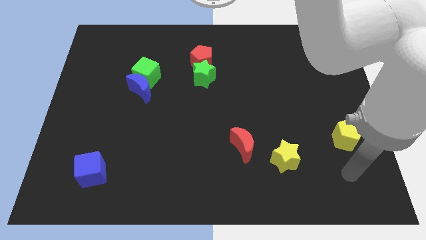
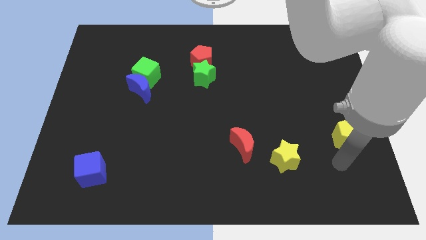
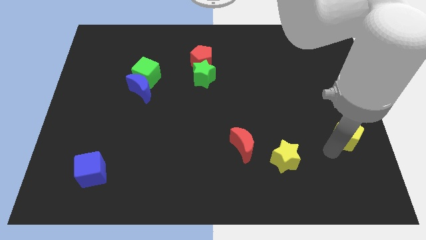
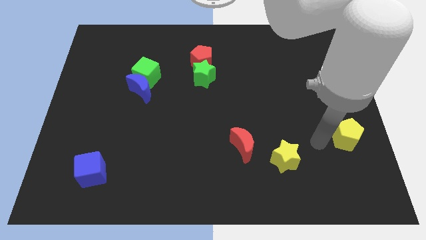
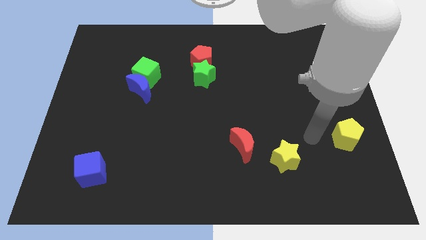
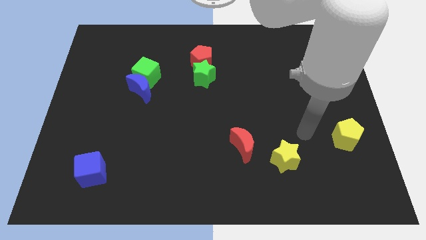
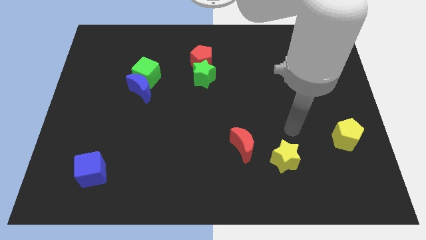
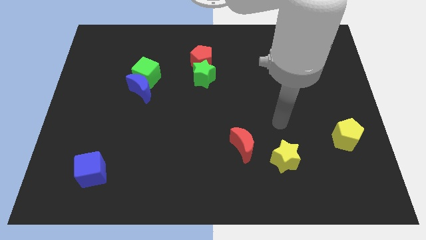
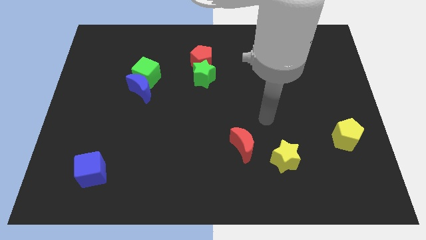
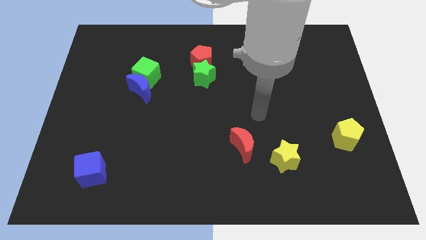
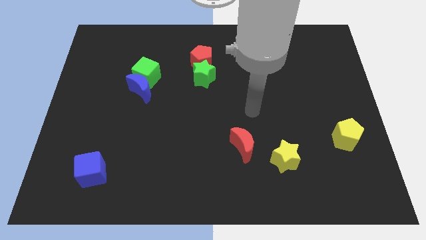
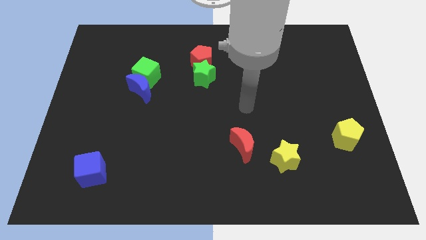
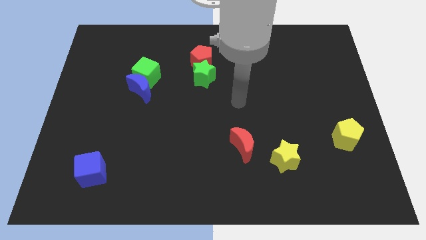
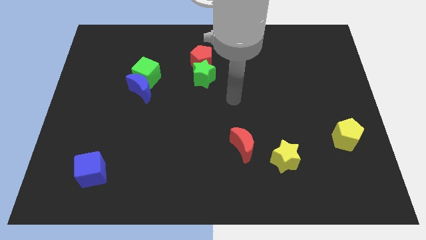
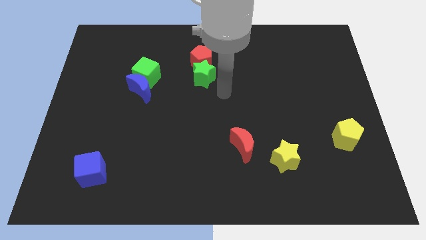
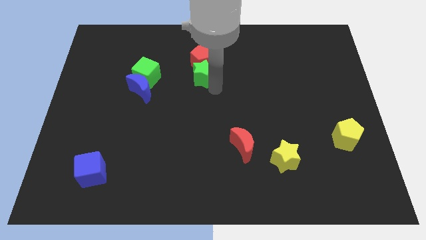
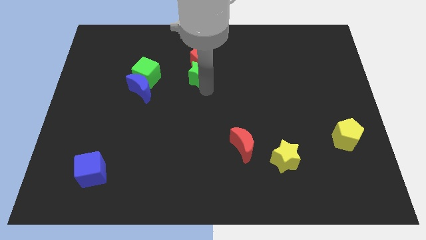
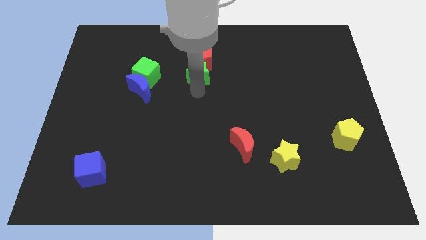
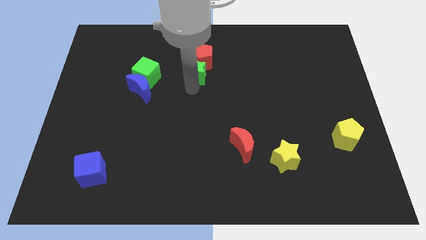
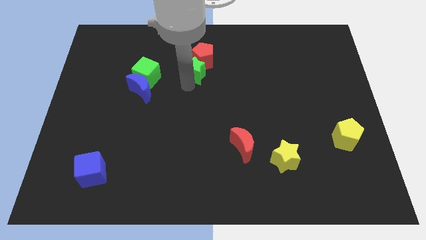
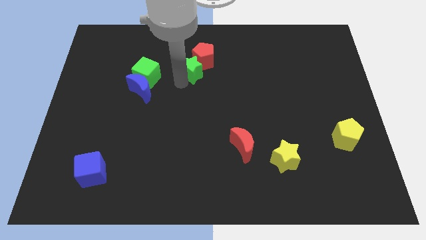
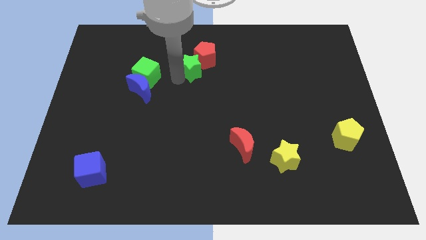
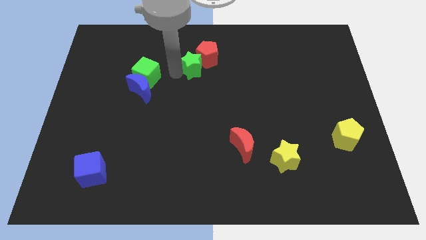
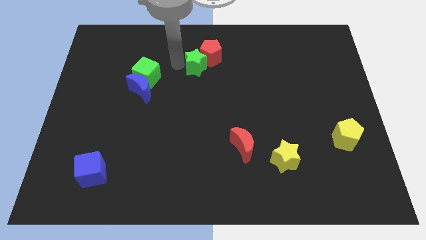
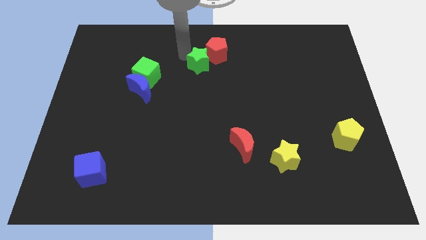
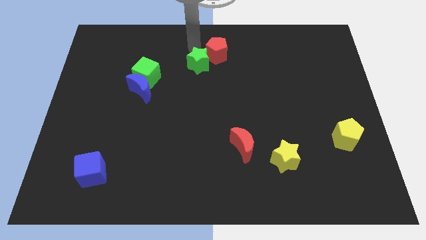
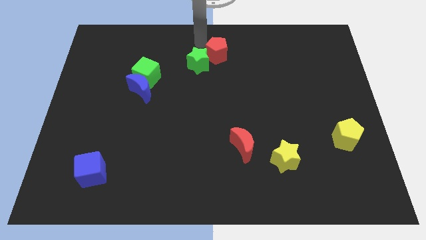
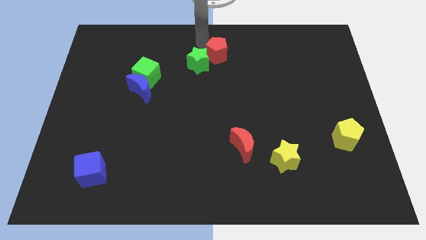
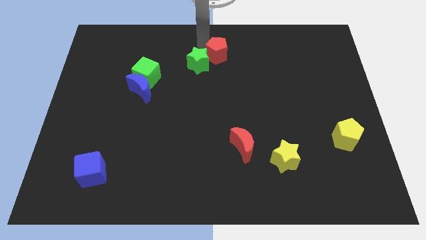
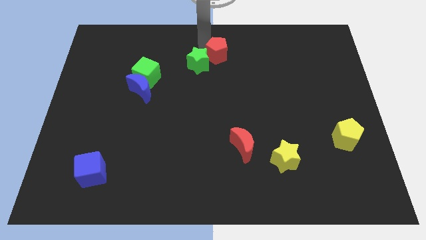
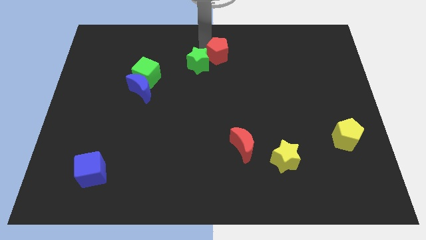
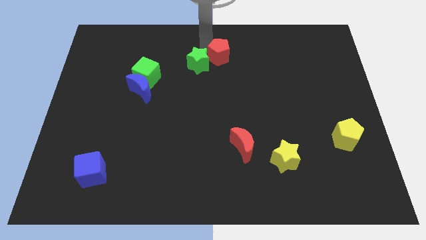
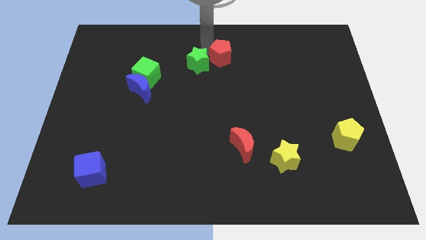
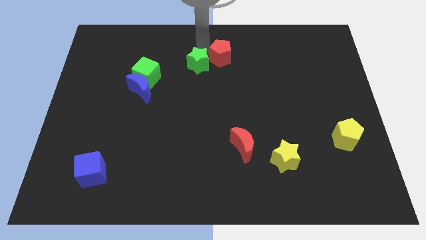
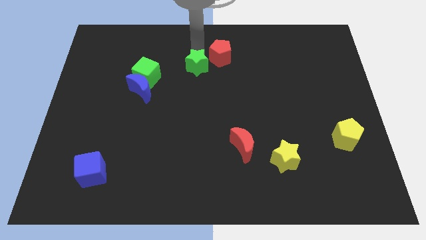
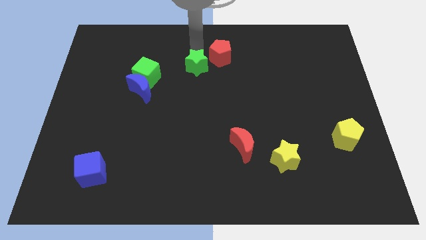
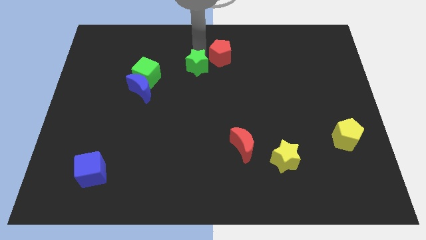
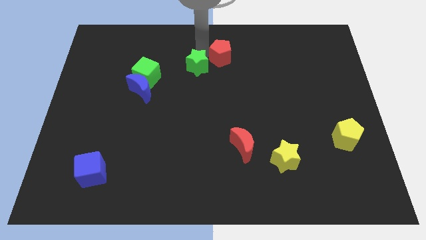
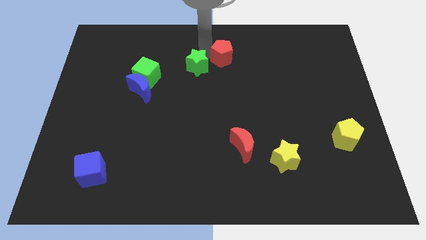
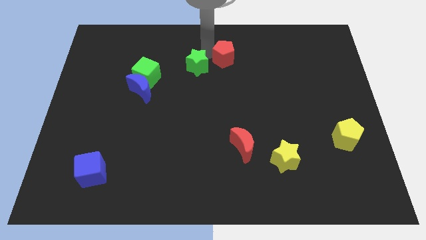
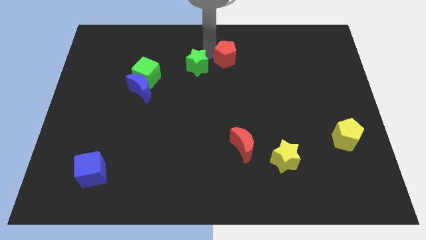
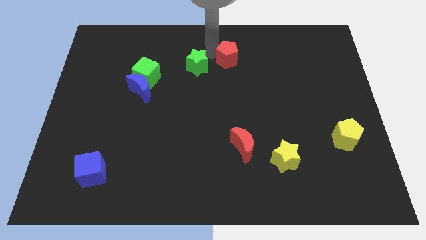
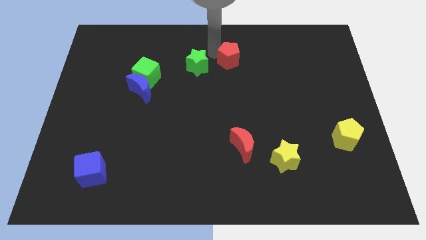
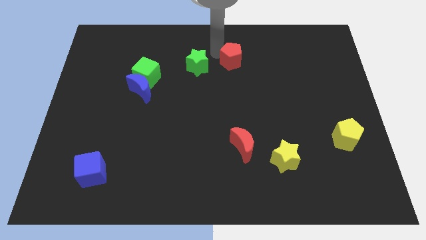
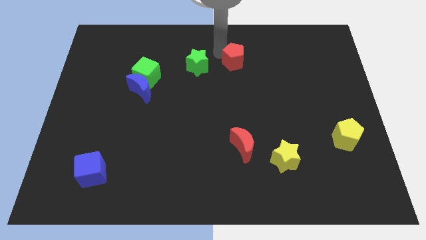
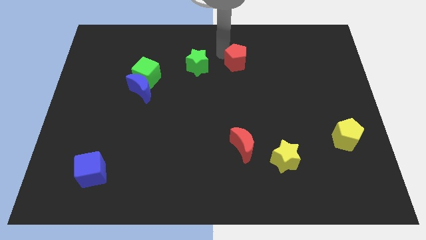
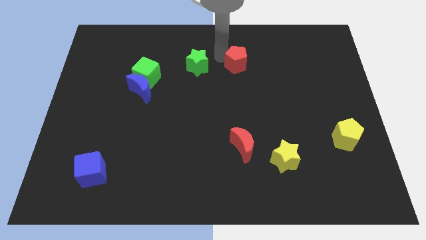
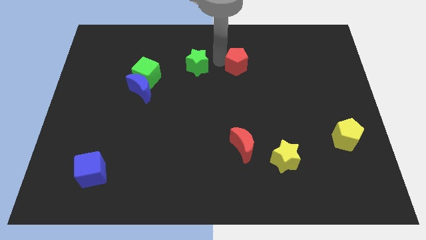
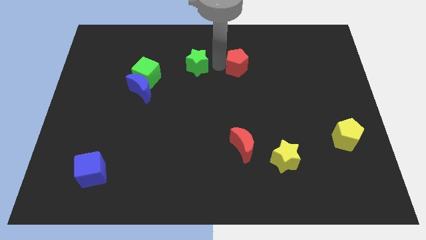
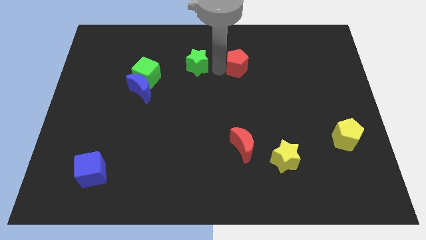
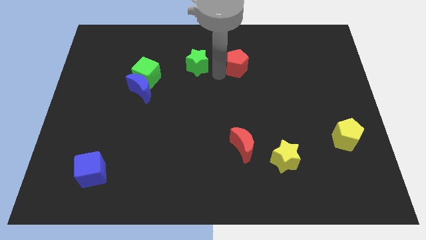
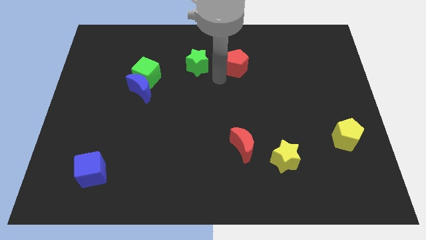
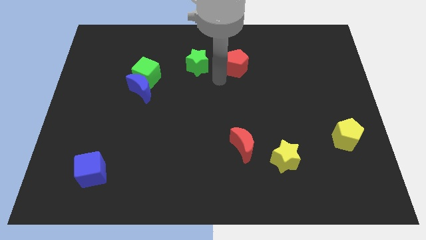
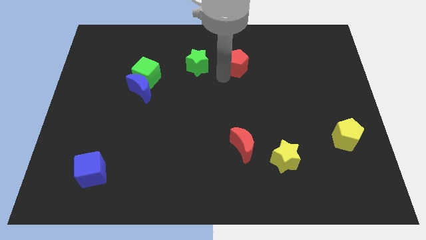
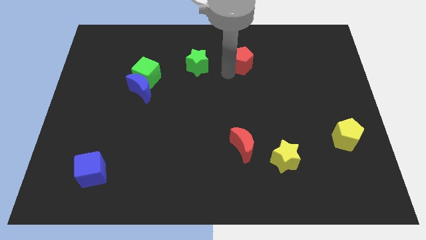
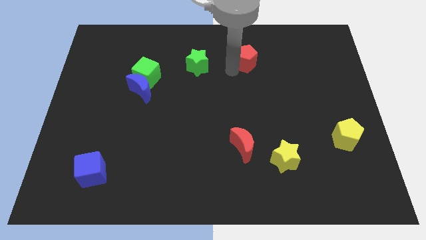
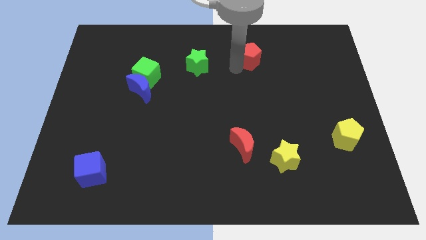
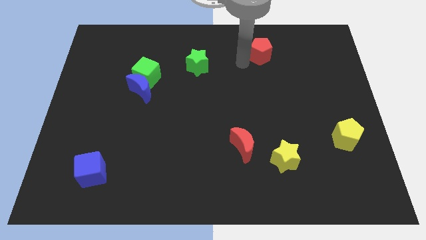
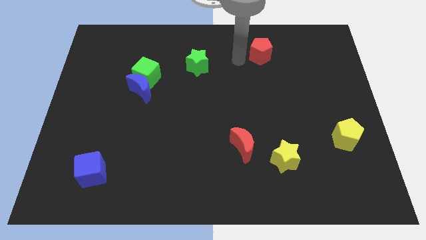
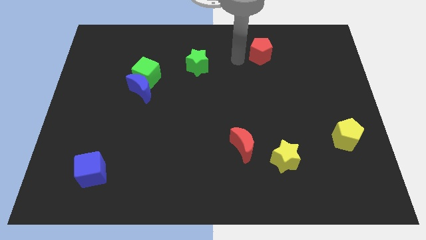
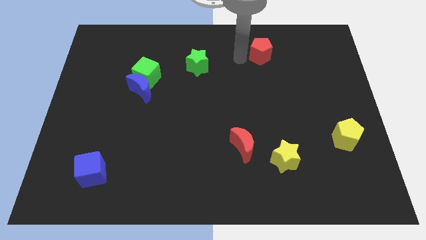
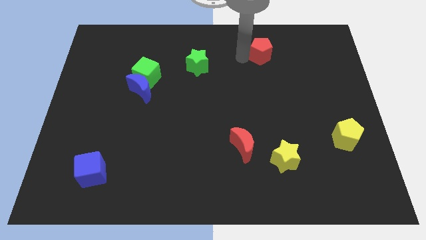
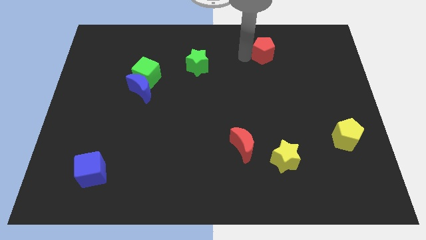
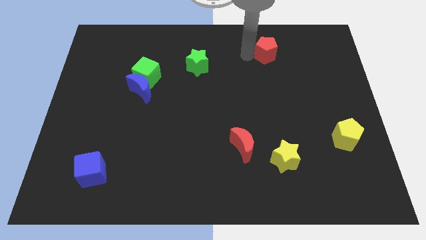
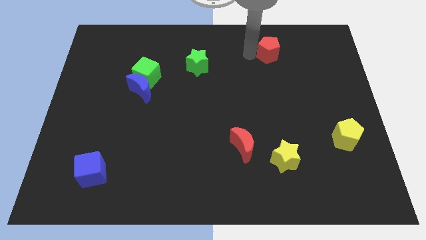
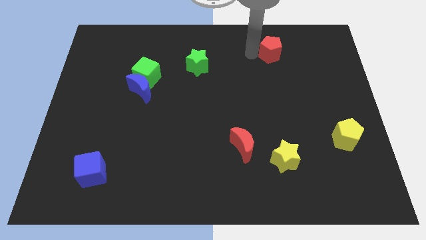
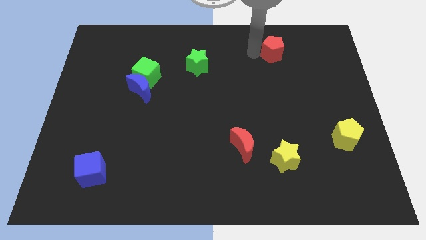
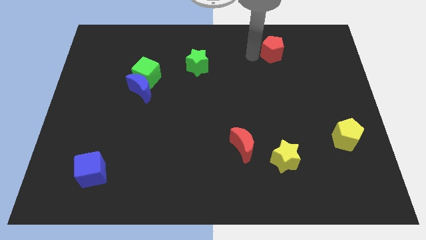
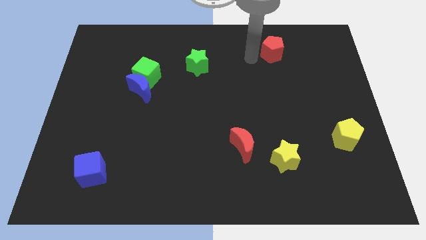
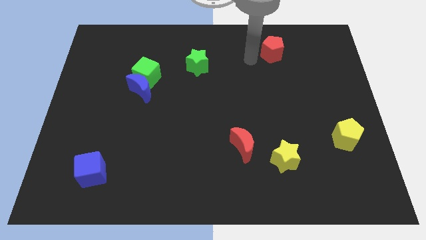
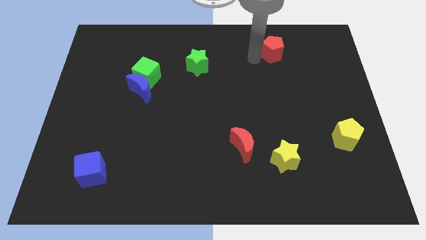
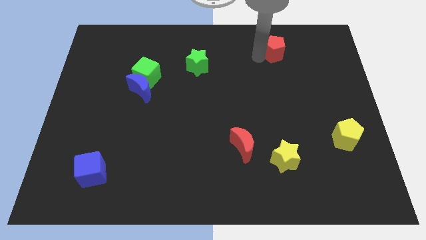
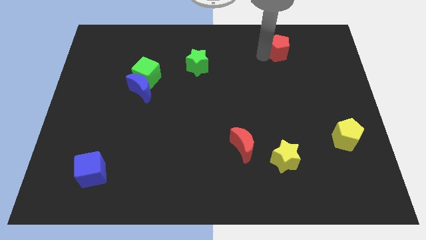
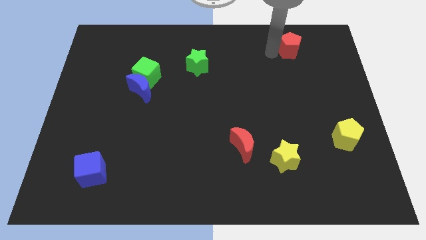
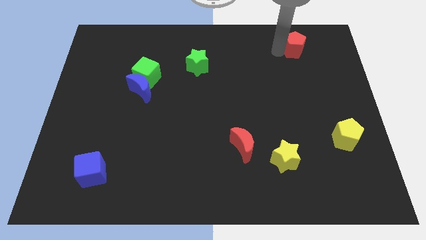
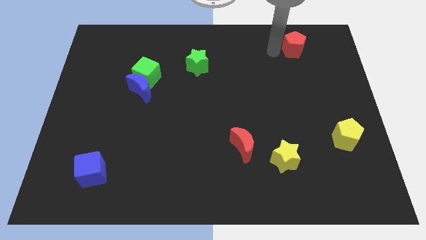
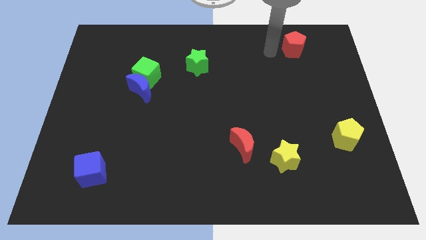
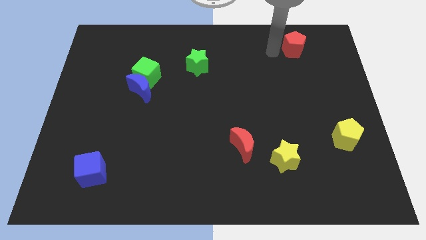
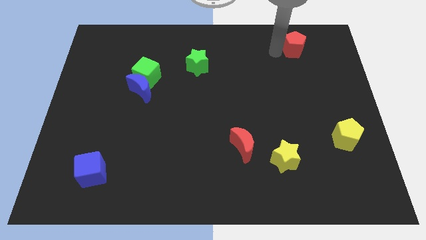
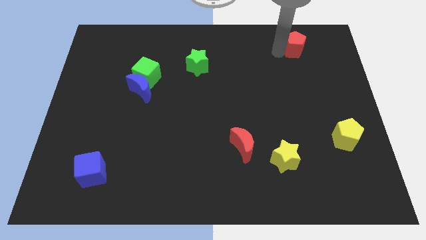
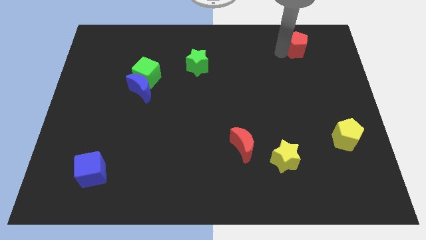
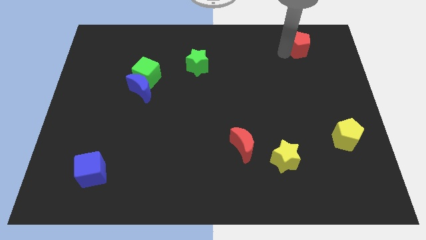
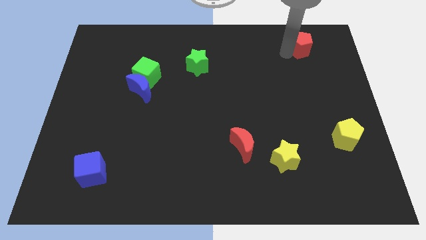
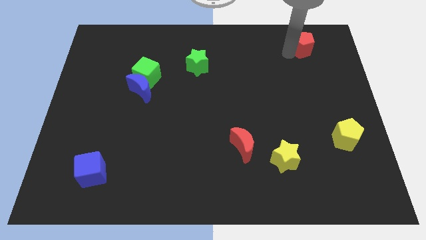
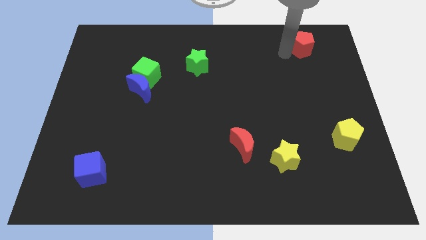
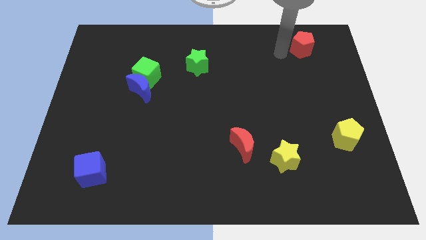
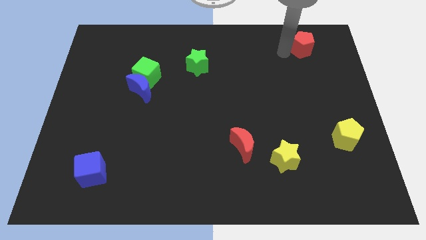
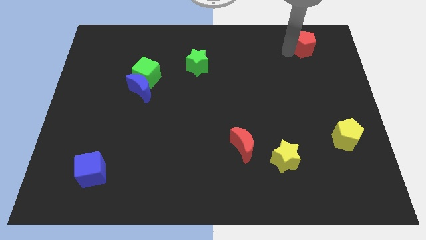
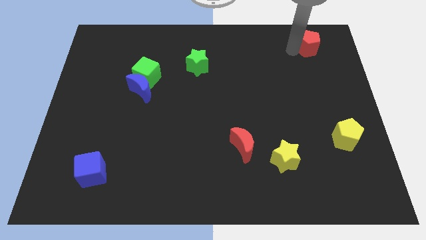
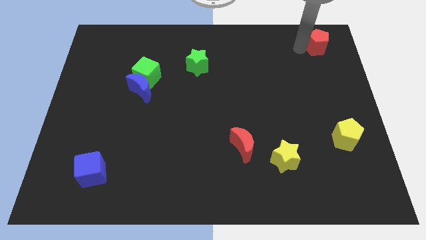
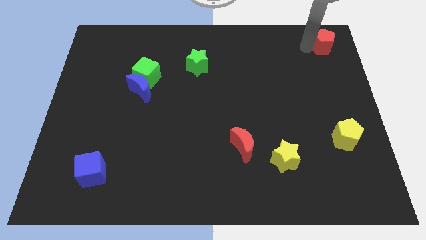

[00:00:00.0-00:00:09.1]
push the red pentagon to the upper right corner
